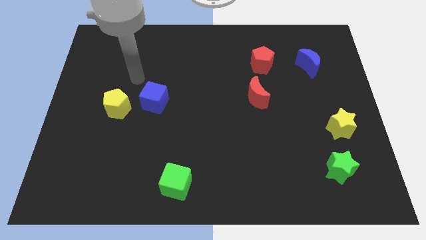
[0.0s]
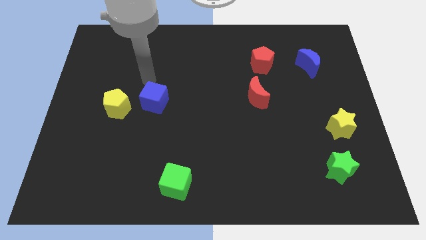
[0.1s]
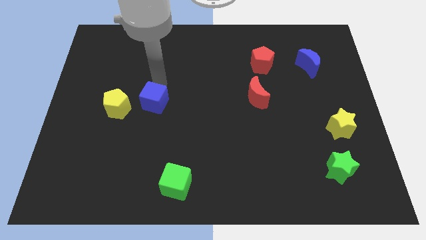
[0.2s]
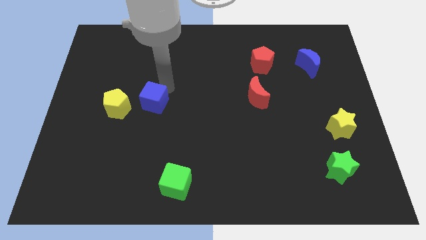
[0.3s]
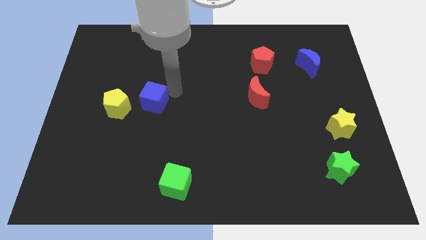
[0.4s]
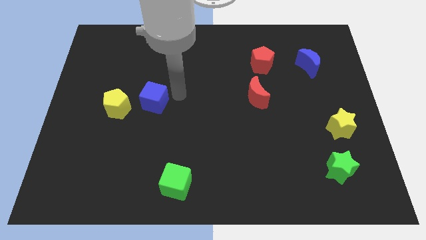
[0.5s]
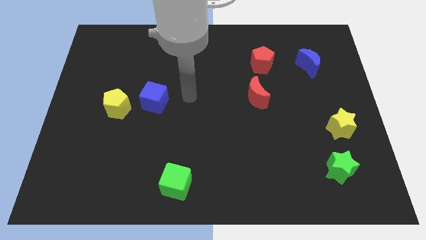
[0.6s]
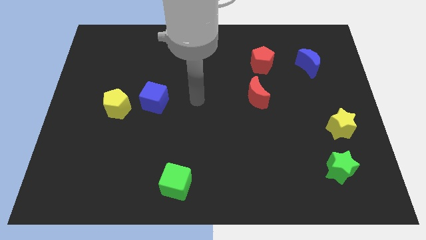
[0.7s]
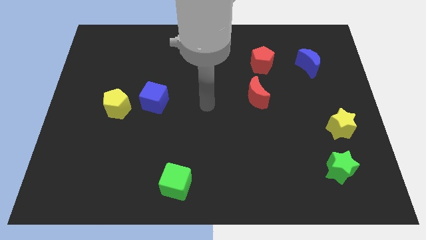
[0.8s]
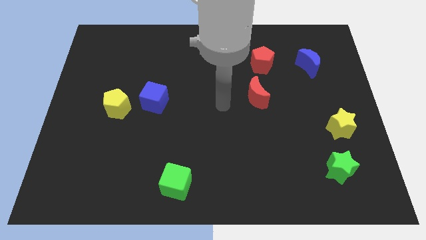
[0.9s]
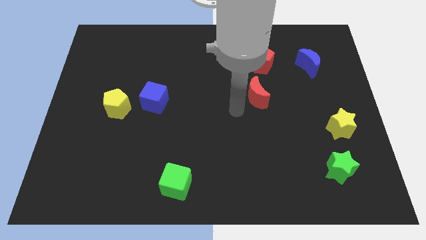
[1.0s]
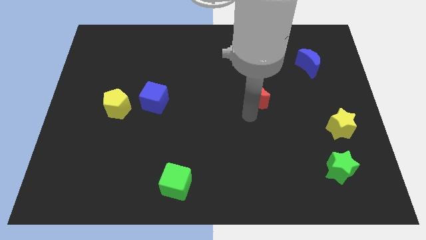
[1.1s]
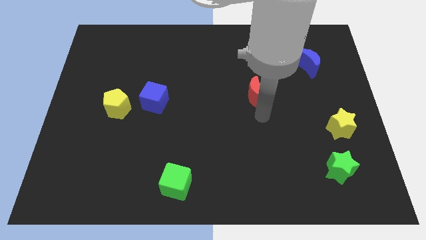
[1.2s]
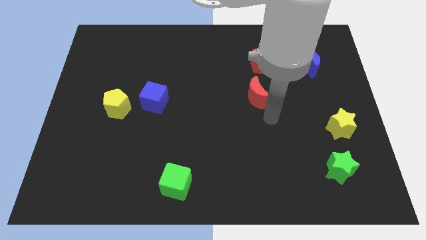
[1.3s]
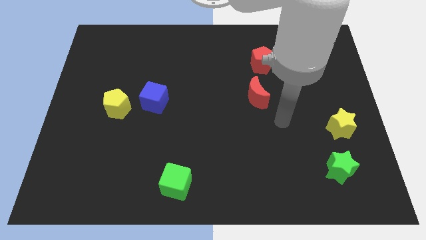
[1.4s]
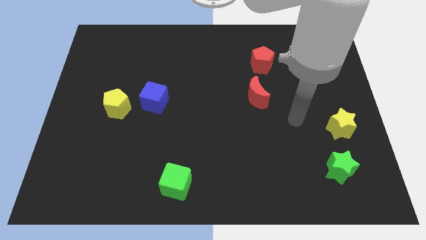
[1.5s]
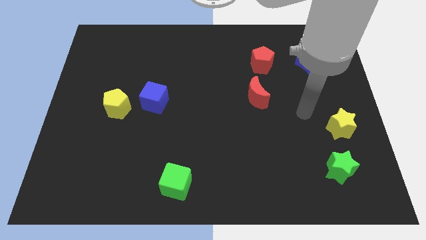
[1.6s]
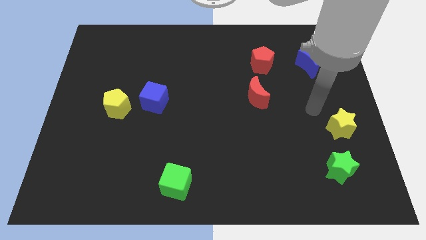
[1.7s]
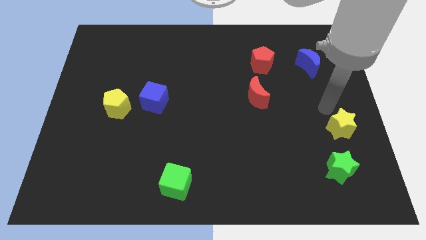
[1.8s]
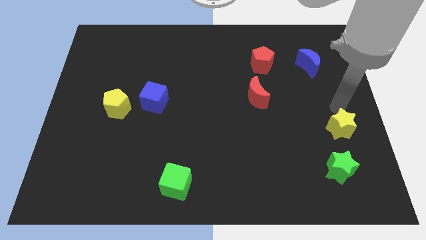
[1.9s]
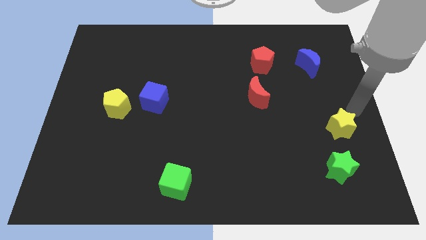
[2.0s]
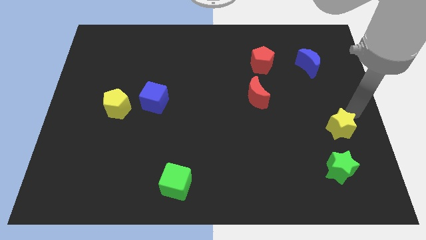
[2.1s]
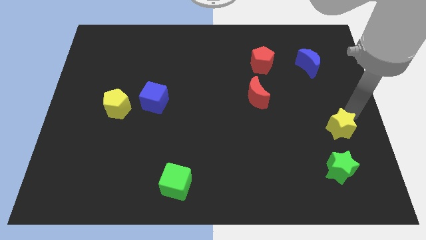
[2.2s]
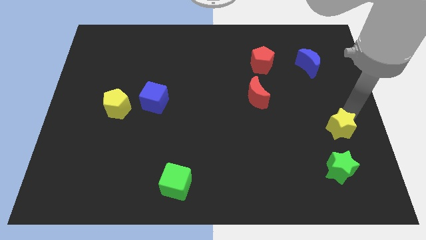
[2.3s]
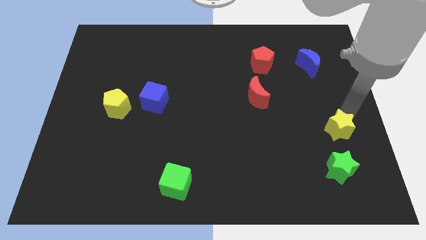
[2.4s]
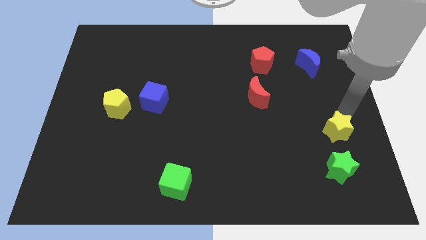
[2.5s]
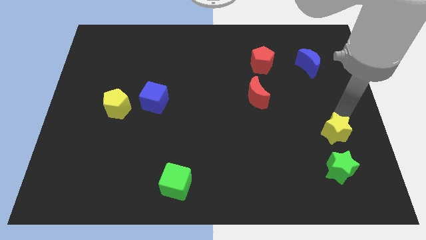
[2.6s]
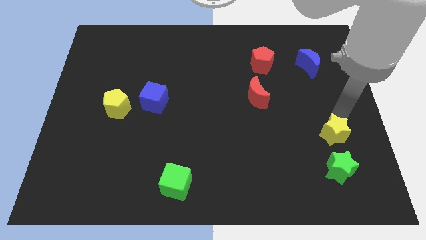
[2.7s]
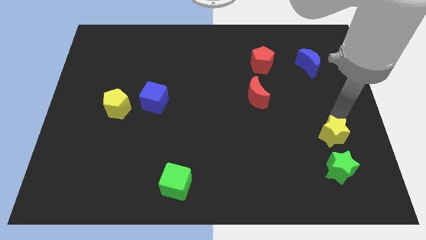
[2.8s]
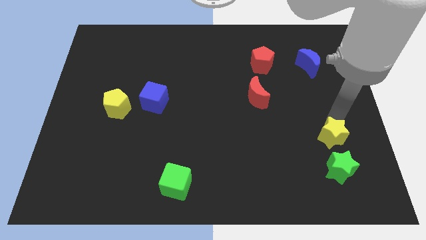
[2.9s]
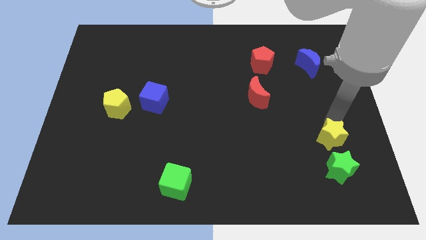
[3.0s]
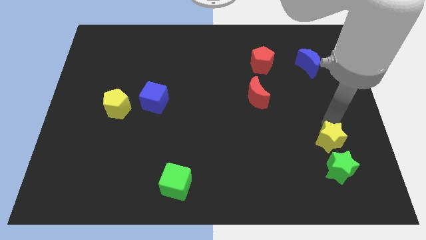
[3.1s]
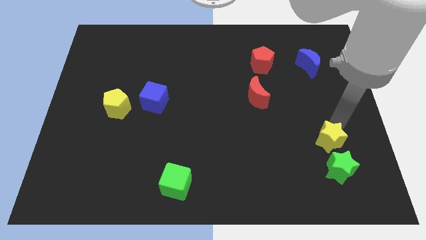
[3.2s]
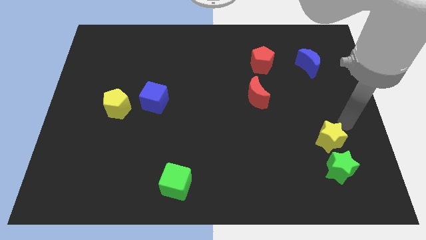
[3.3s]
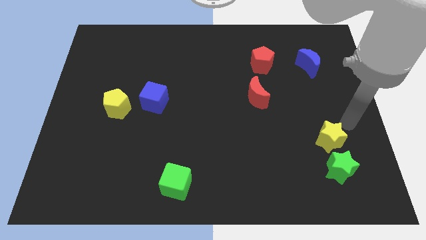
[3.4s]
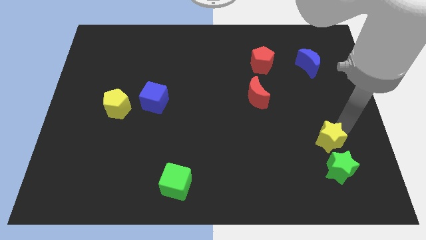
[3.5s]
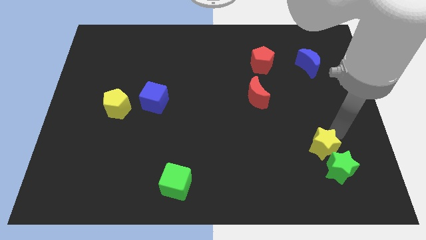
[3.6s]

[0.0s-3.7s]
slide the yellow star a little down and then to the left

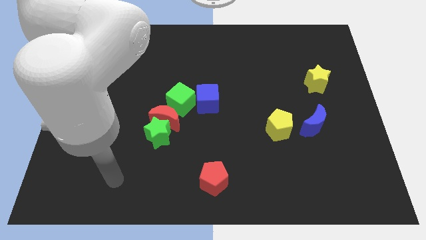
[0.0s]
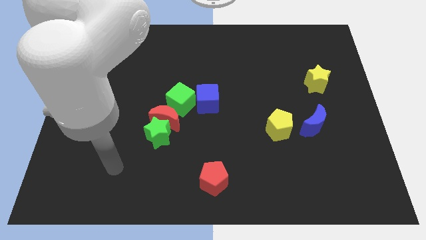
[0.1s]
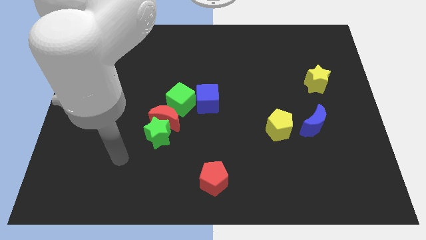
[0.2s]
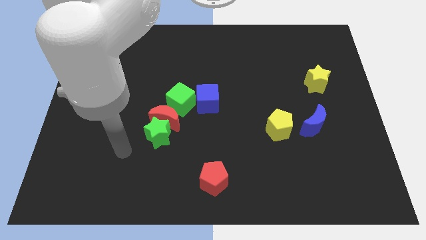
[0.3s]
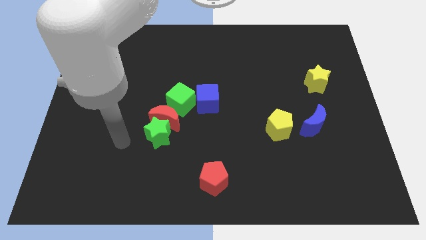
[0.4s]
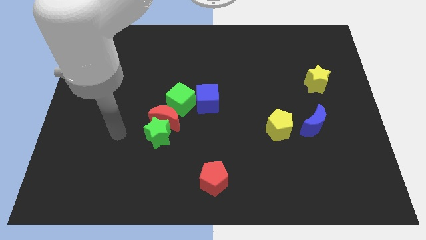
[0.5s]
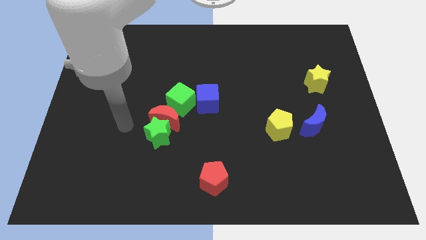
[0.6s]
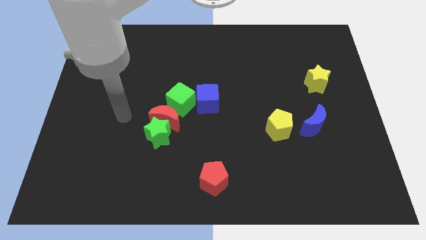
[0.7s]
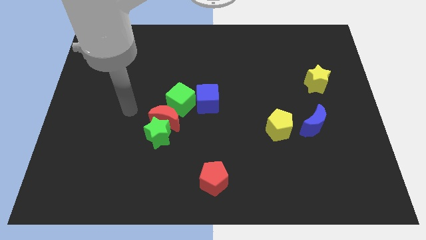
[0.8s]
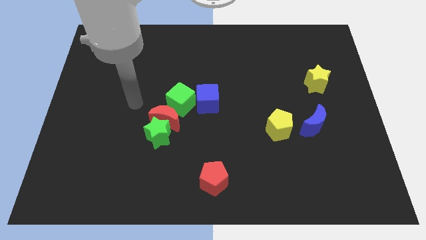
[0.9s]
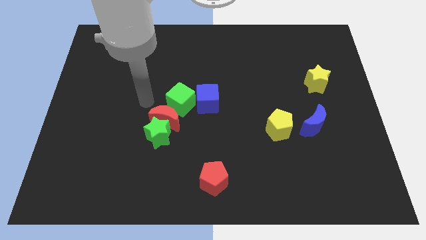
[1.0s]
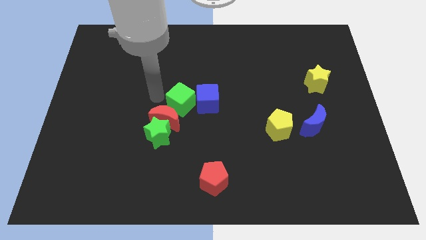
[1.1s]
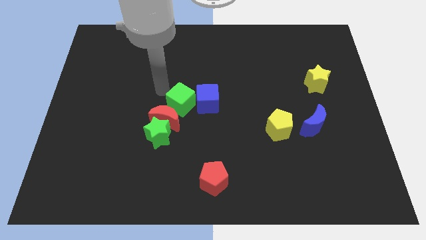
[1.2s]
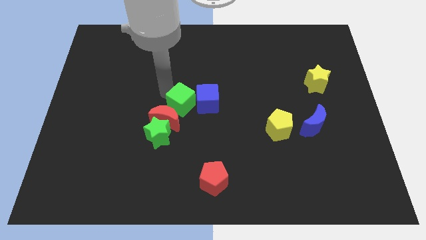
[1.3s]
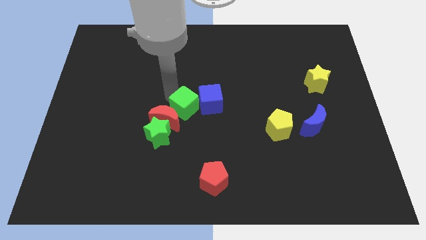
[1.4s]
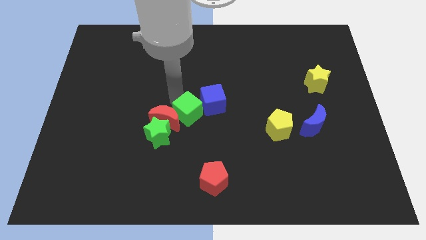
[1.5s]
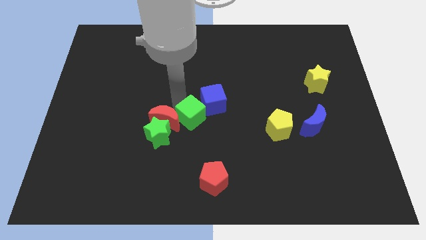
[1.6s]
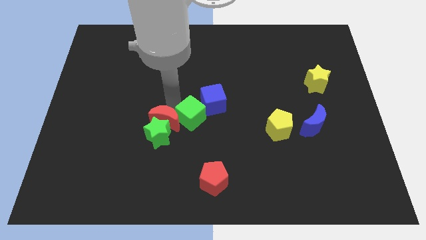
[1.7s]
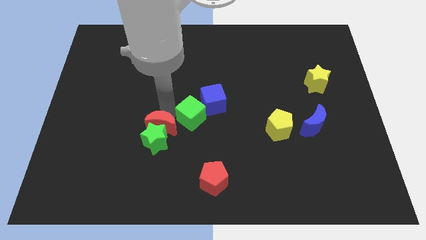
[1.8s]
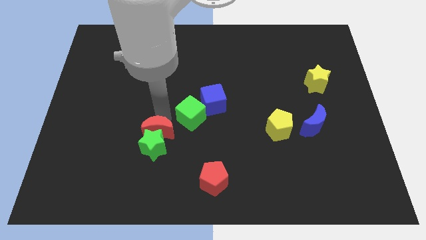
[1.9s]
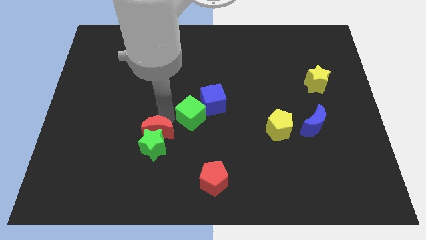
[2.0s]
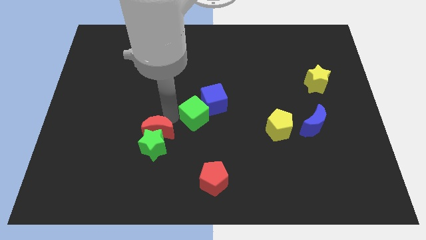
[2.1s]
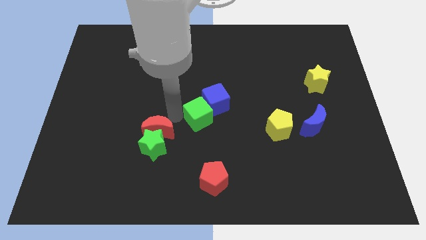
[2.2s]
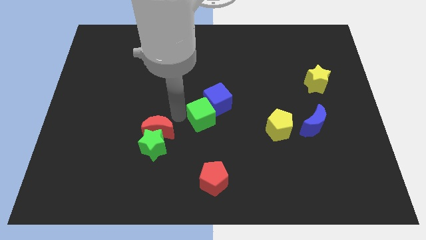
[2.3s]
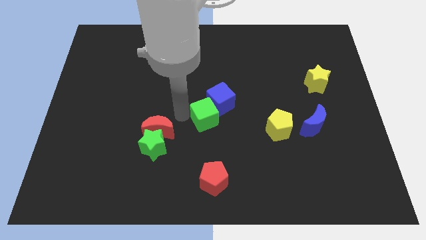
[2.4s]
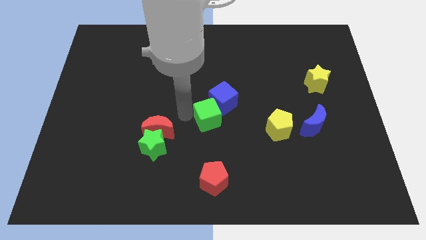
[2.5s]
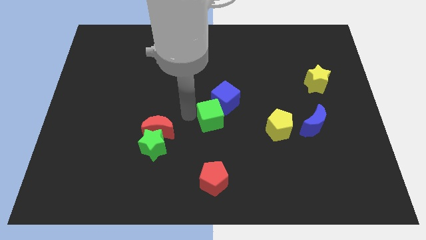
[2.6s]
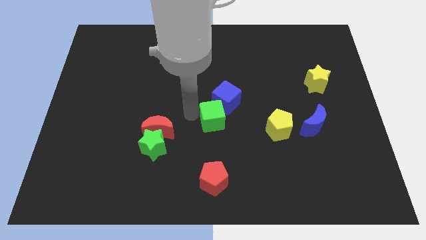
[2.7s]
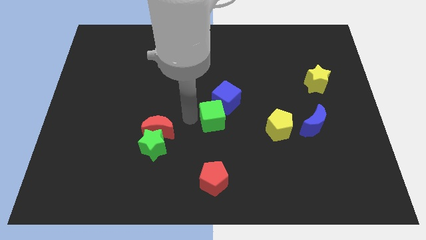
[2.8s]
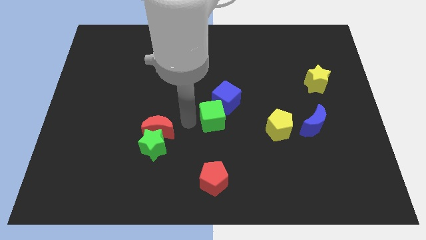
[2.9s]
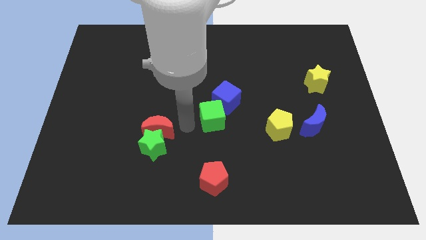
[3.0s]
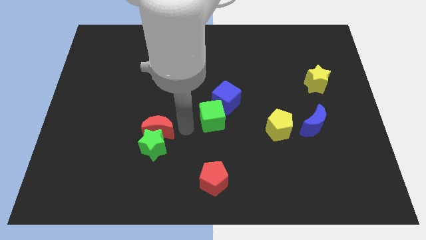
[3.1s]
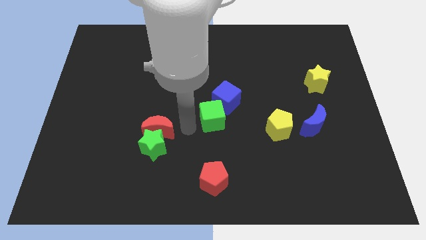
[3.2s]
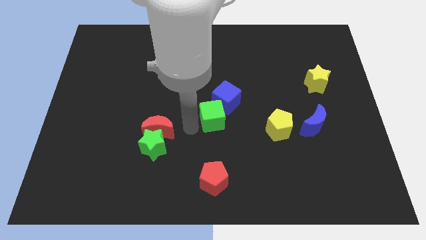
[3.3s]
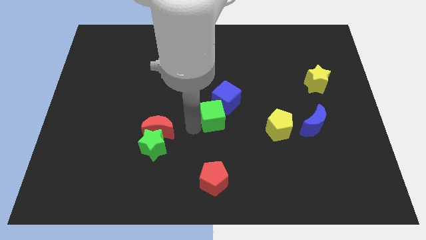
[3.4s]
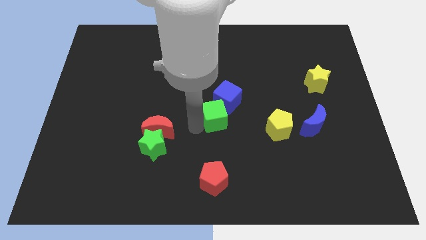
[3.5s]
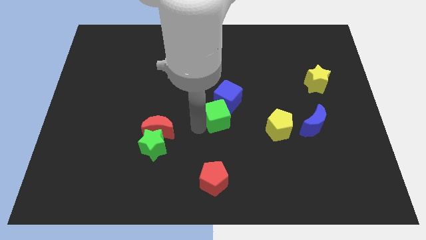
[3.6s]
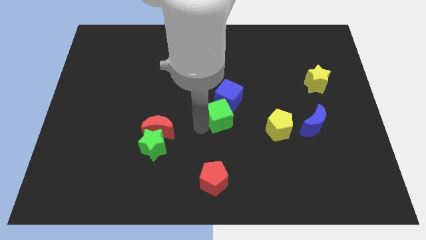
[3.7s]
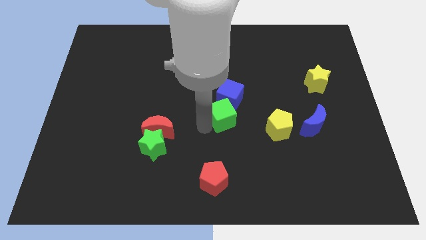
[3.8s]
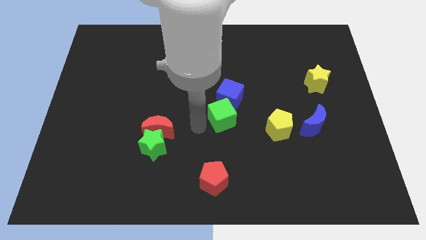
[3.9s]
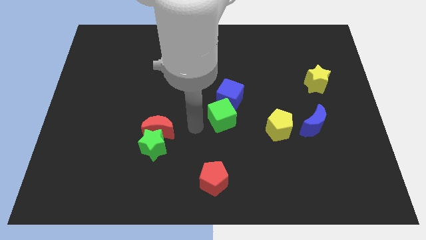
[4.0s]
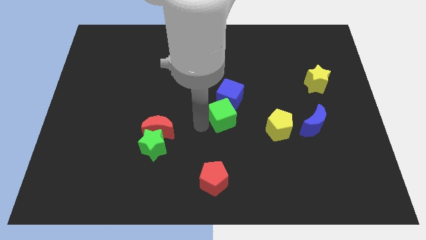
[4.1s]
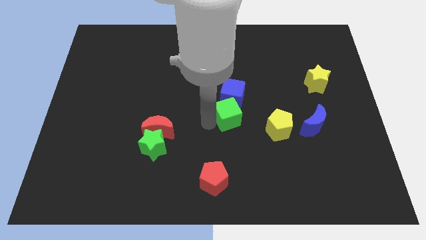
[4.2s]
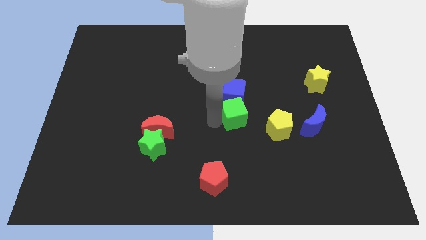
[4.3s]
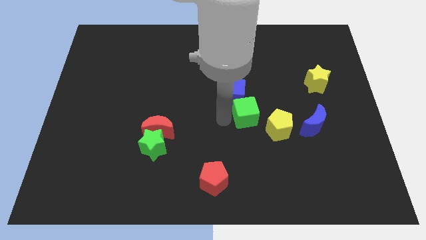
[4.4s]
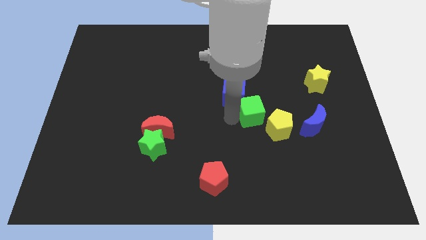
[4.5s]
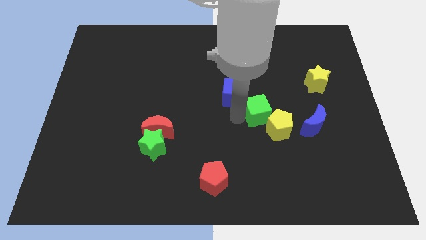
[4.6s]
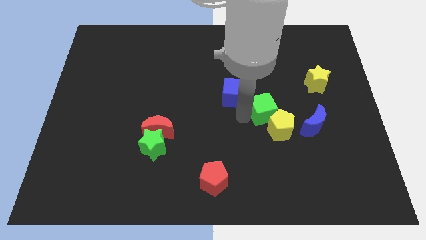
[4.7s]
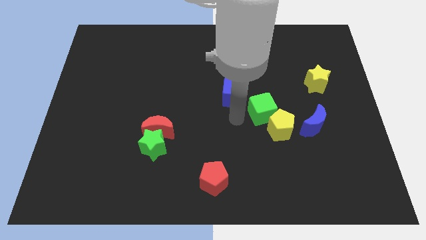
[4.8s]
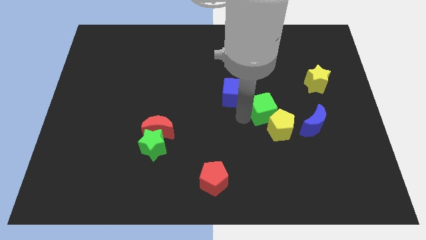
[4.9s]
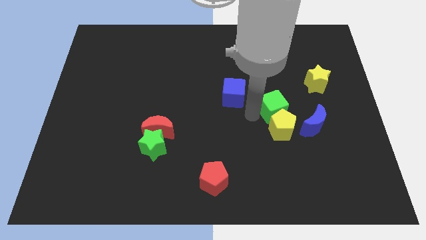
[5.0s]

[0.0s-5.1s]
slide the green cube to the right
